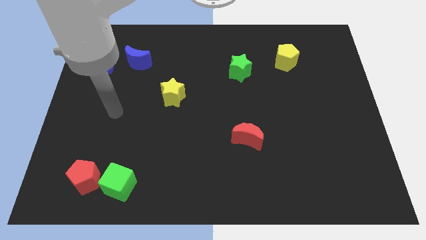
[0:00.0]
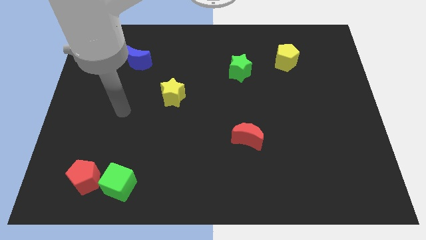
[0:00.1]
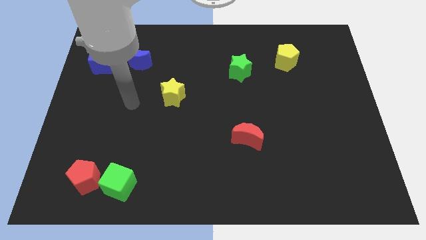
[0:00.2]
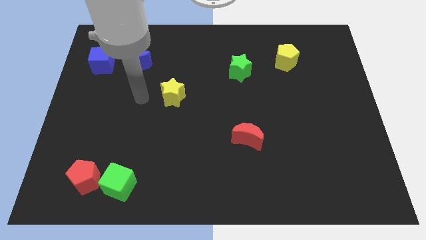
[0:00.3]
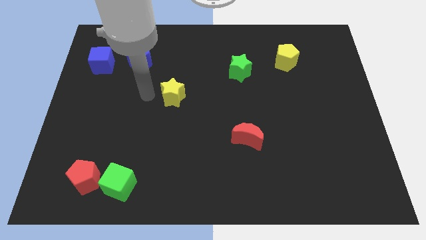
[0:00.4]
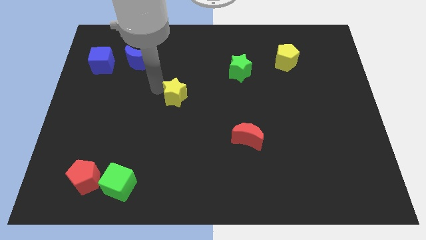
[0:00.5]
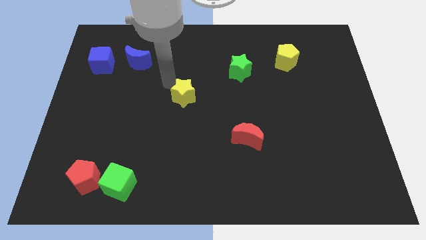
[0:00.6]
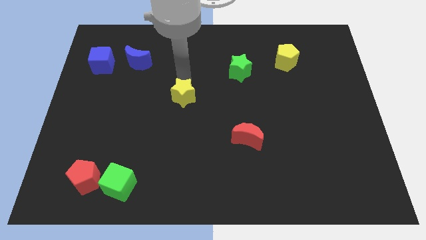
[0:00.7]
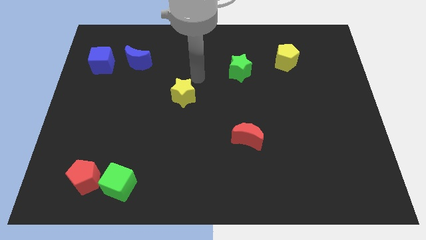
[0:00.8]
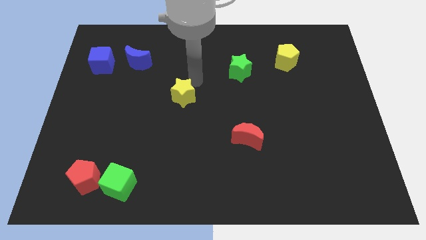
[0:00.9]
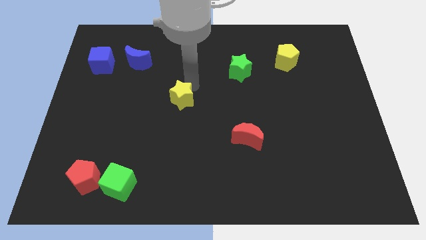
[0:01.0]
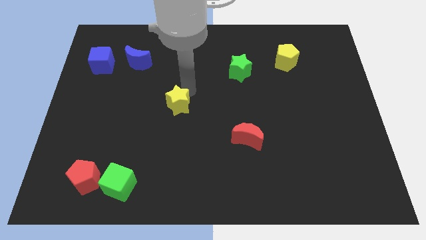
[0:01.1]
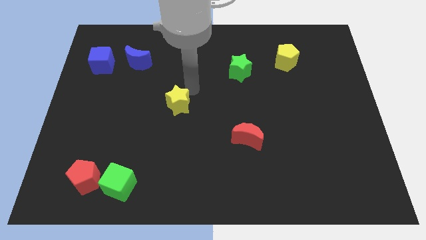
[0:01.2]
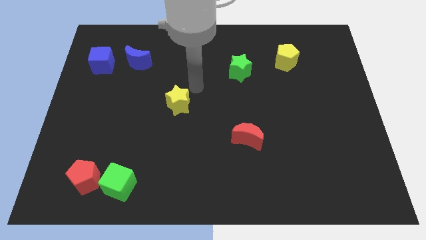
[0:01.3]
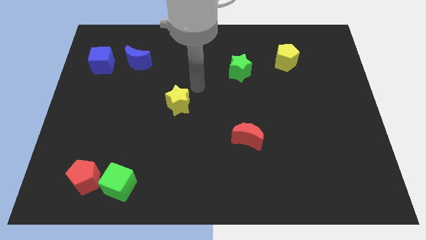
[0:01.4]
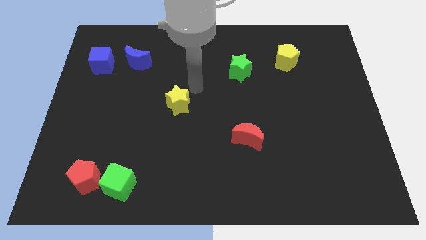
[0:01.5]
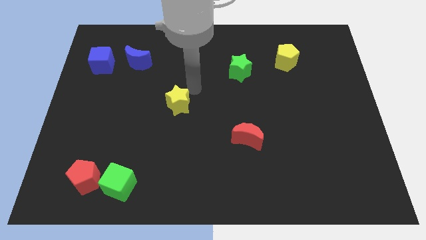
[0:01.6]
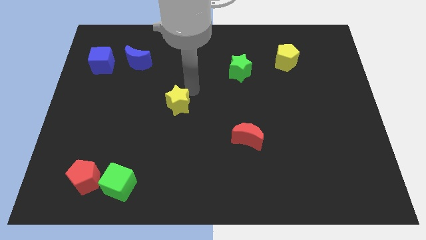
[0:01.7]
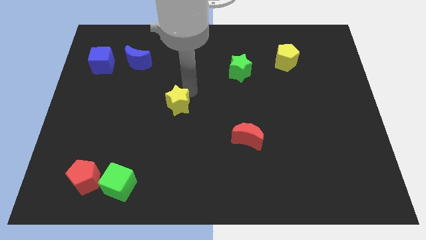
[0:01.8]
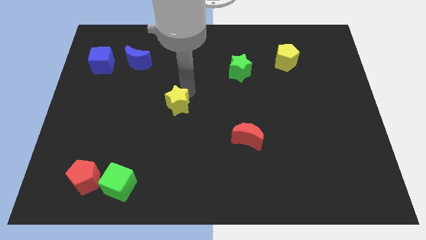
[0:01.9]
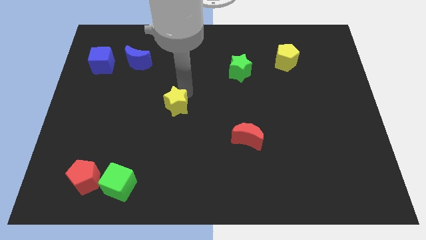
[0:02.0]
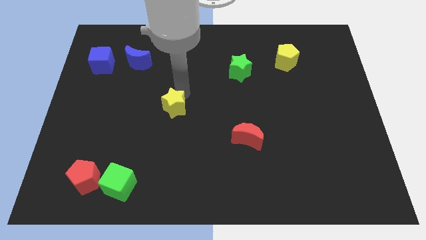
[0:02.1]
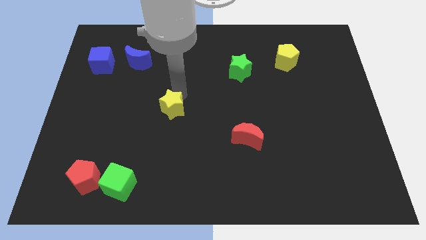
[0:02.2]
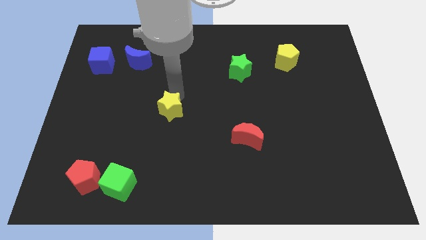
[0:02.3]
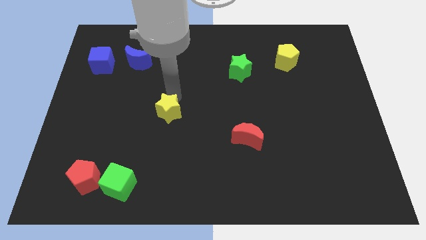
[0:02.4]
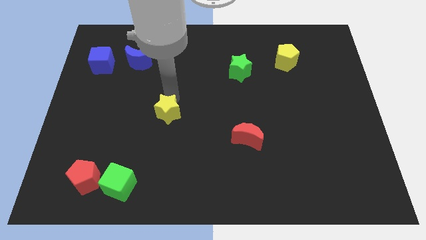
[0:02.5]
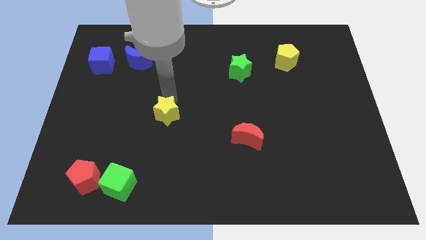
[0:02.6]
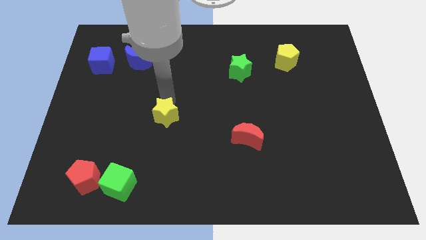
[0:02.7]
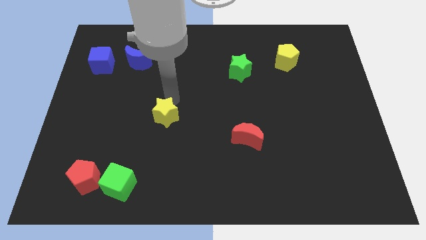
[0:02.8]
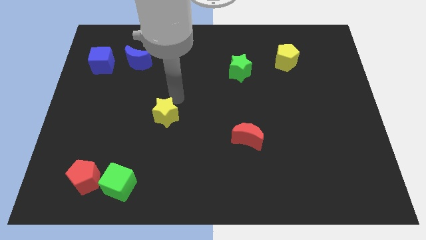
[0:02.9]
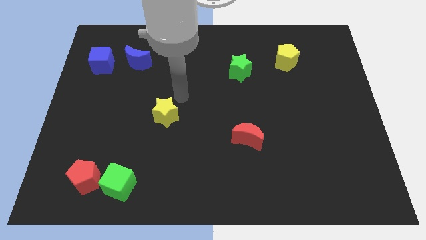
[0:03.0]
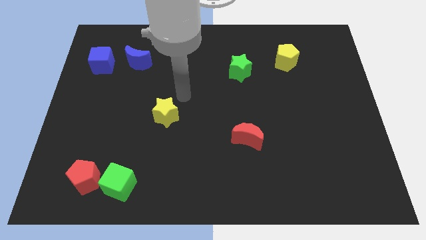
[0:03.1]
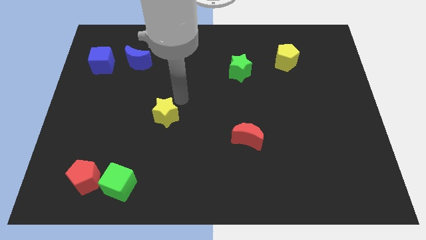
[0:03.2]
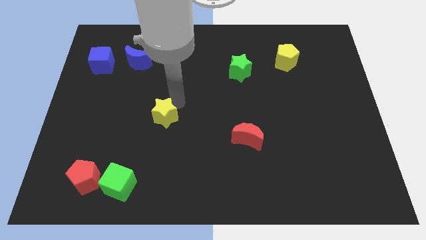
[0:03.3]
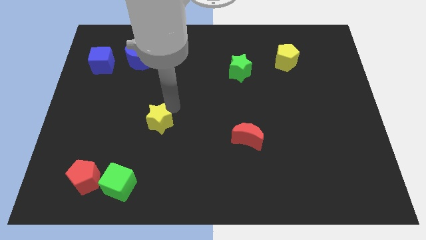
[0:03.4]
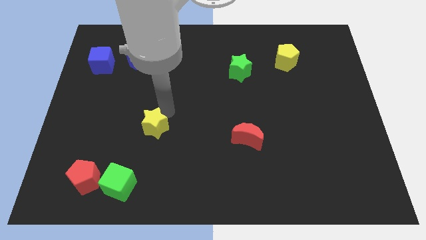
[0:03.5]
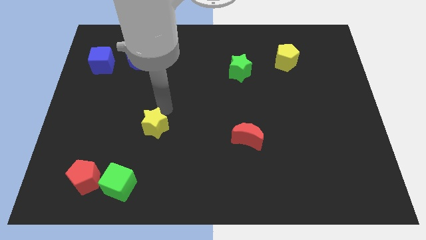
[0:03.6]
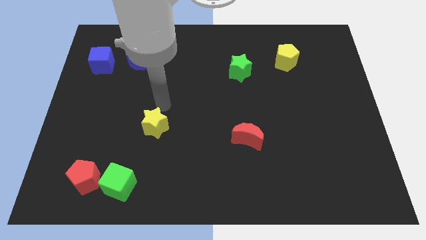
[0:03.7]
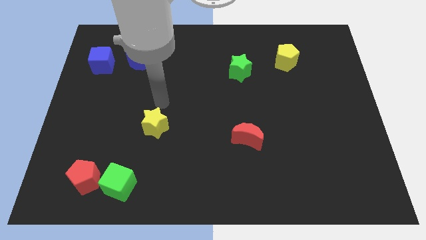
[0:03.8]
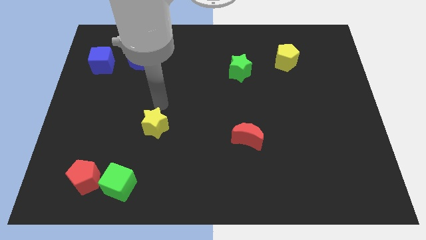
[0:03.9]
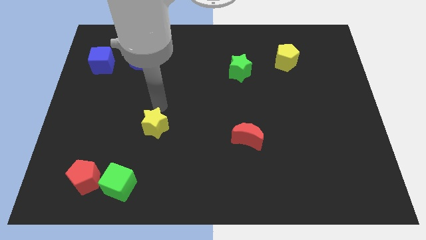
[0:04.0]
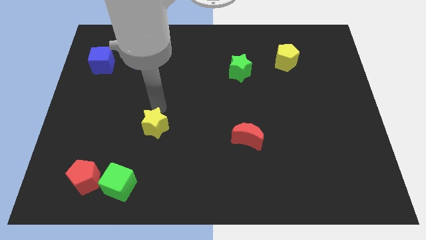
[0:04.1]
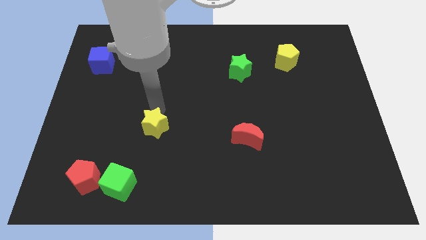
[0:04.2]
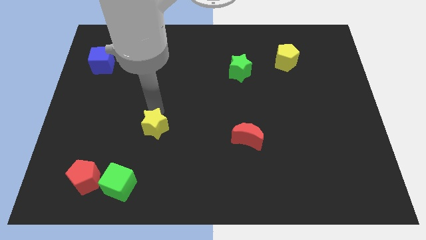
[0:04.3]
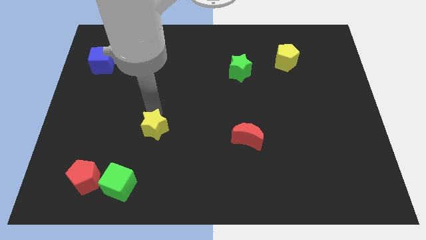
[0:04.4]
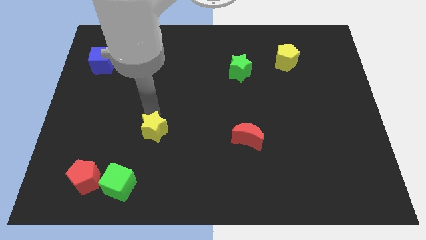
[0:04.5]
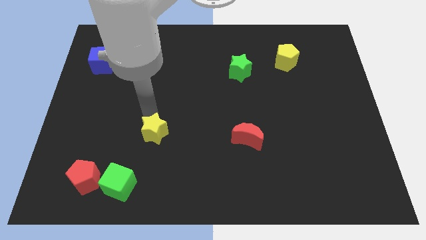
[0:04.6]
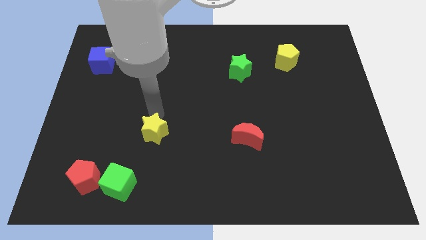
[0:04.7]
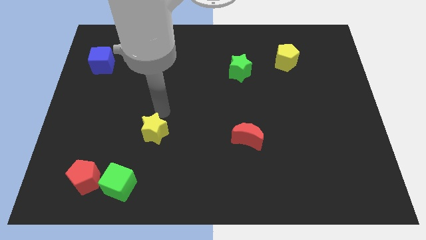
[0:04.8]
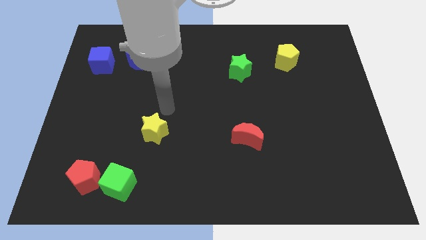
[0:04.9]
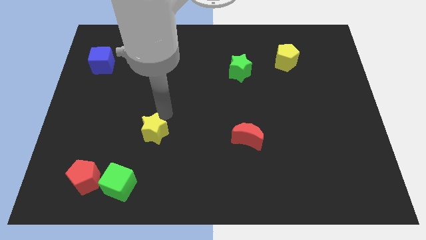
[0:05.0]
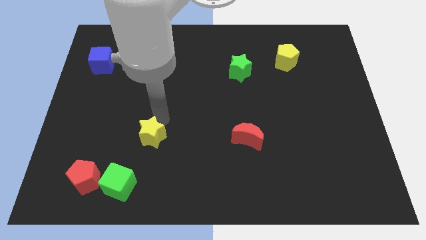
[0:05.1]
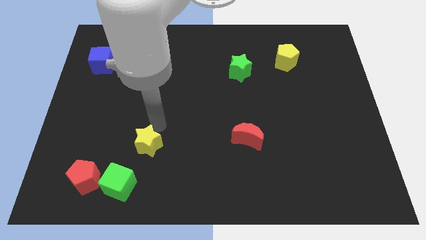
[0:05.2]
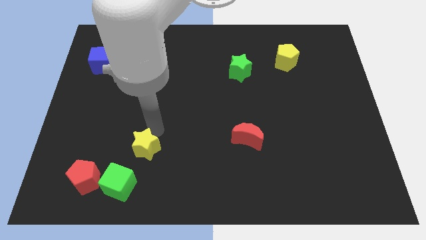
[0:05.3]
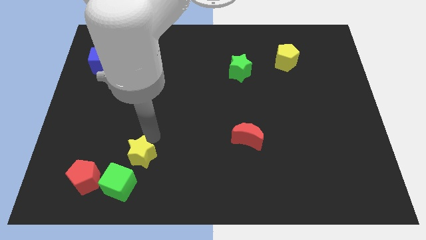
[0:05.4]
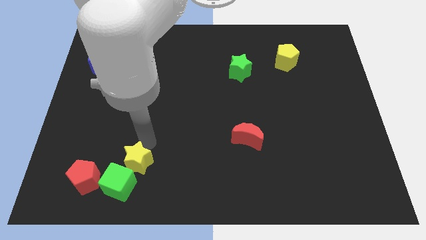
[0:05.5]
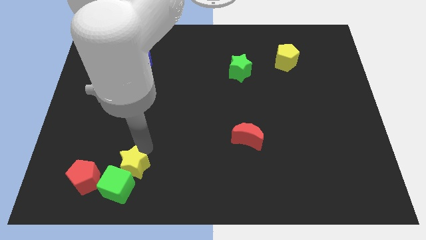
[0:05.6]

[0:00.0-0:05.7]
slide the yellow star towards the green cube

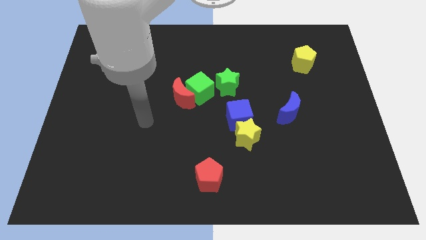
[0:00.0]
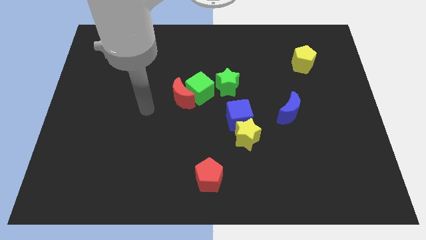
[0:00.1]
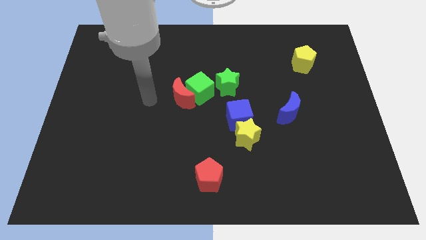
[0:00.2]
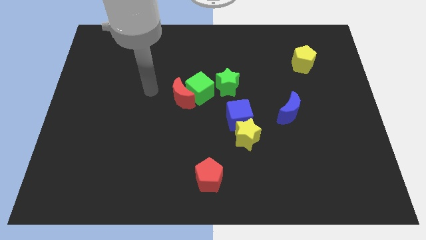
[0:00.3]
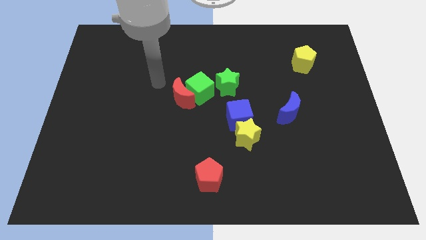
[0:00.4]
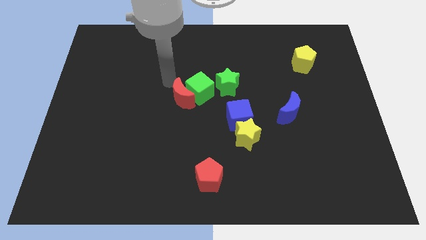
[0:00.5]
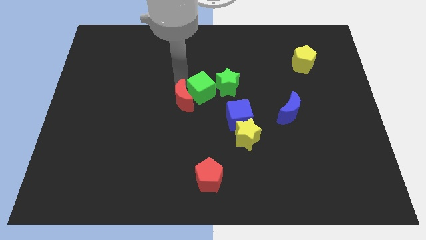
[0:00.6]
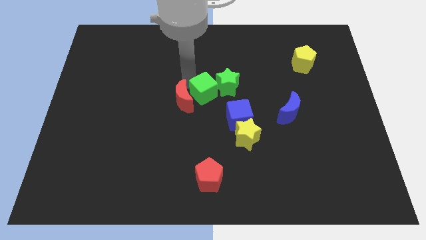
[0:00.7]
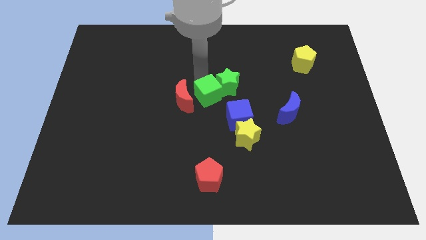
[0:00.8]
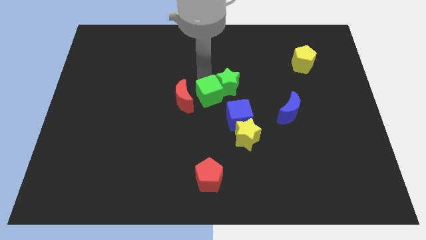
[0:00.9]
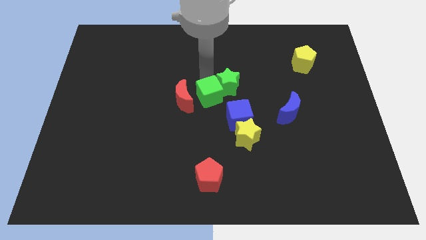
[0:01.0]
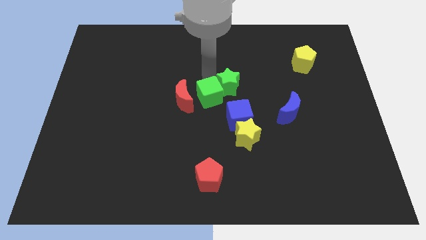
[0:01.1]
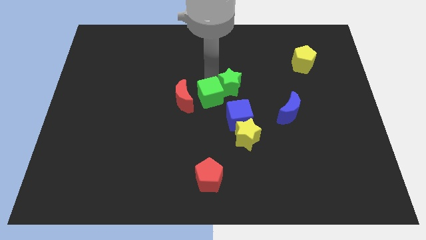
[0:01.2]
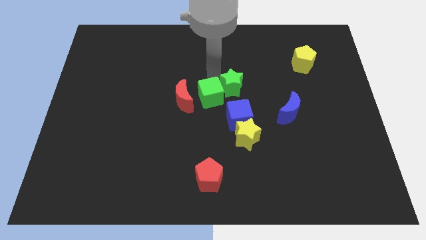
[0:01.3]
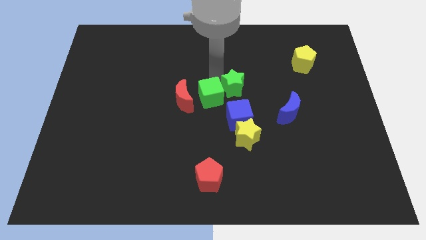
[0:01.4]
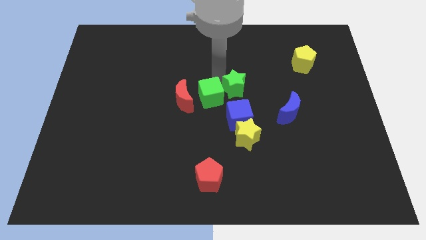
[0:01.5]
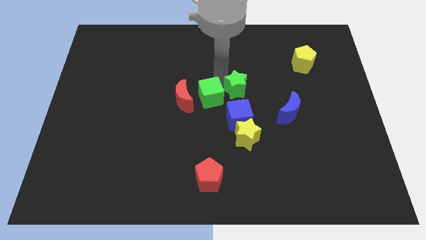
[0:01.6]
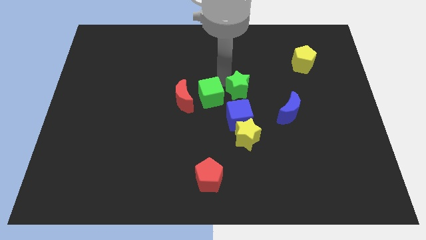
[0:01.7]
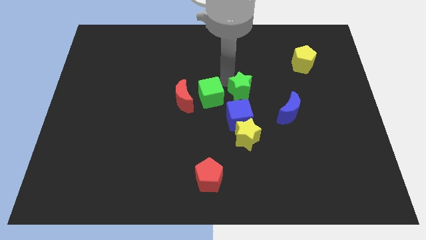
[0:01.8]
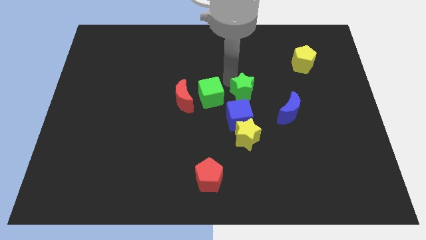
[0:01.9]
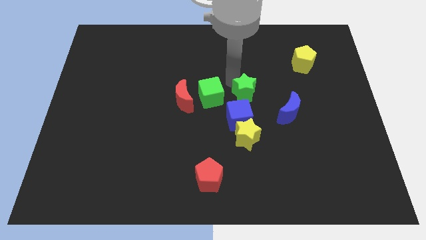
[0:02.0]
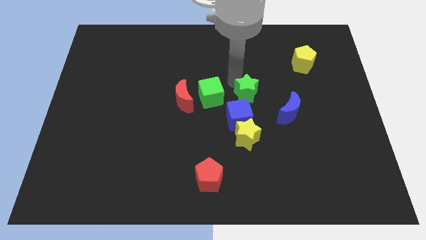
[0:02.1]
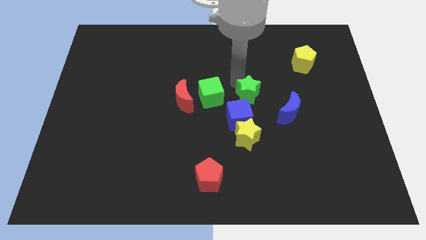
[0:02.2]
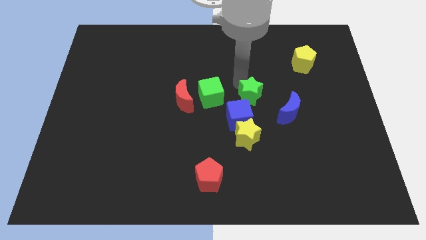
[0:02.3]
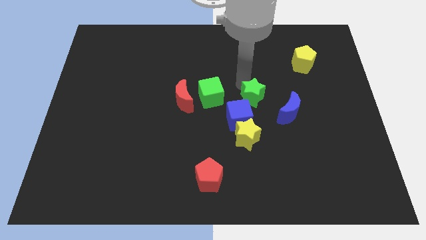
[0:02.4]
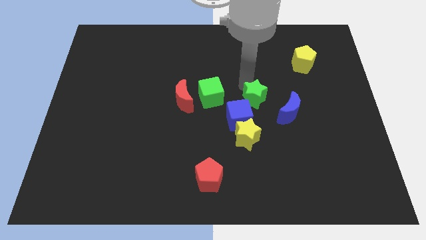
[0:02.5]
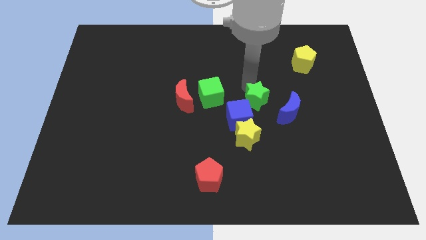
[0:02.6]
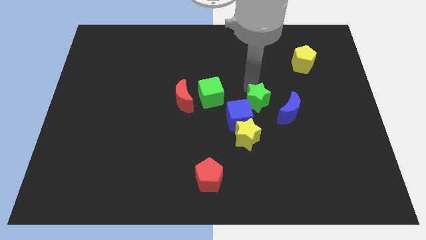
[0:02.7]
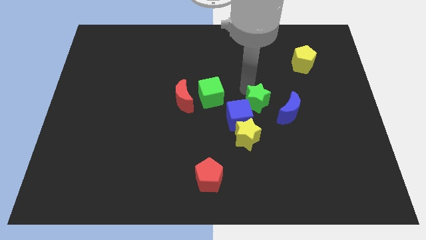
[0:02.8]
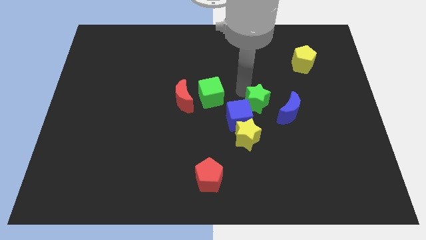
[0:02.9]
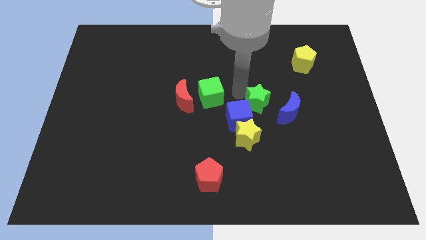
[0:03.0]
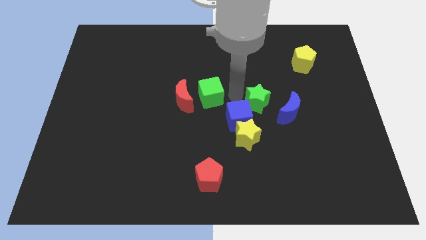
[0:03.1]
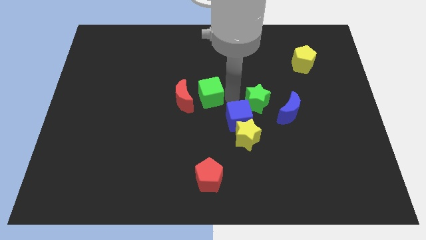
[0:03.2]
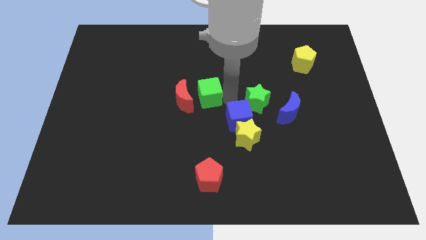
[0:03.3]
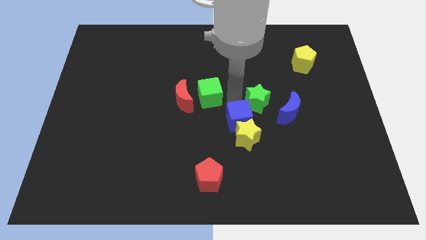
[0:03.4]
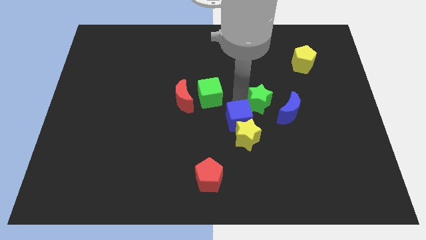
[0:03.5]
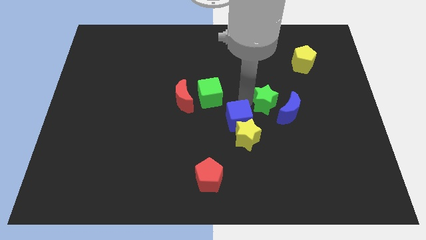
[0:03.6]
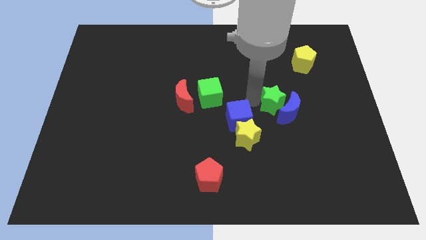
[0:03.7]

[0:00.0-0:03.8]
slide the green star next to the blue moon
